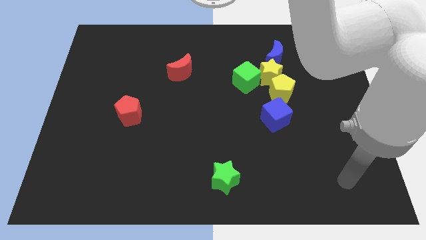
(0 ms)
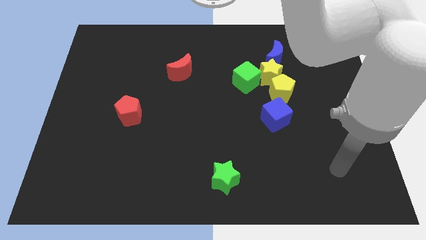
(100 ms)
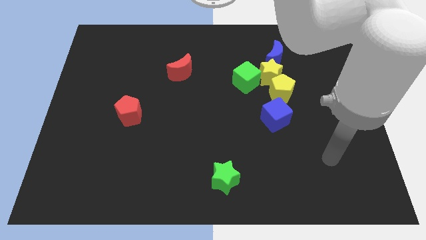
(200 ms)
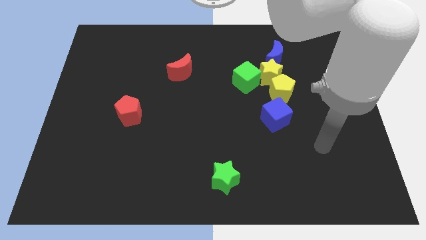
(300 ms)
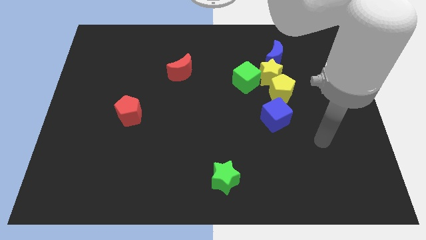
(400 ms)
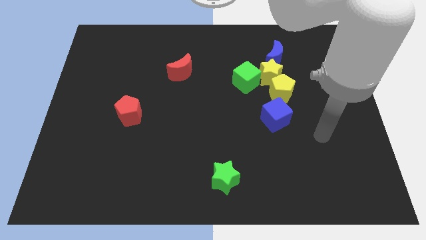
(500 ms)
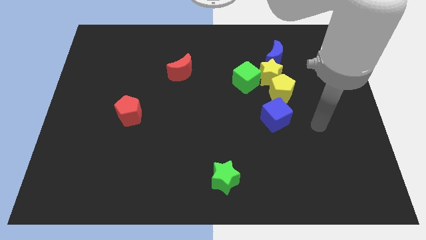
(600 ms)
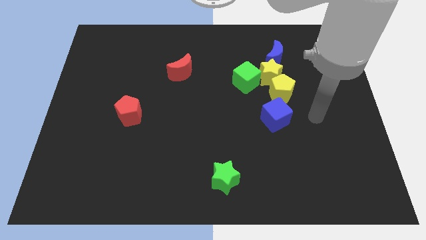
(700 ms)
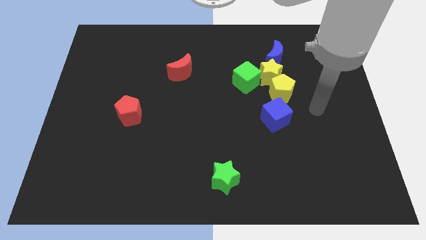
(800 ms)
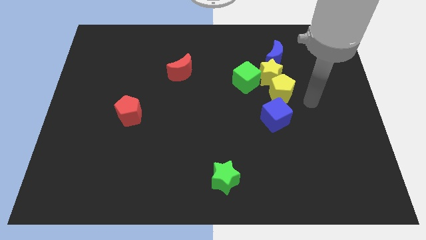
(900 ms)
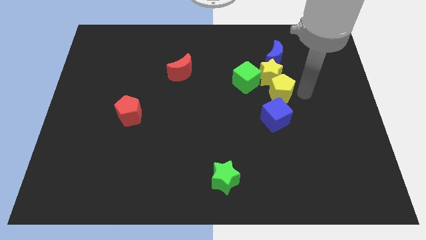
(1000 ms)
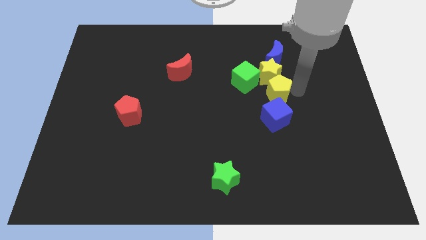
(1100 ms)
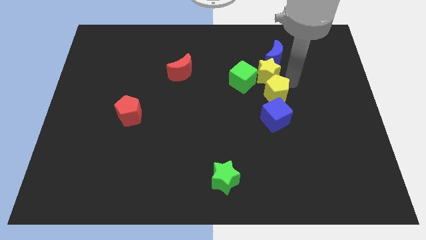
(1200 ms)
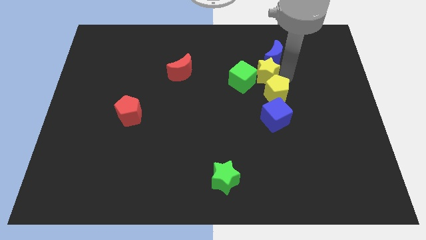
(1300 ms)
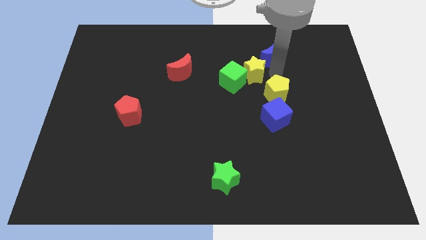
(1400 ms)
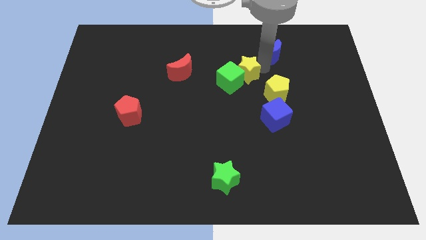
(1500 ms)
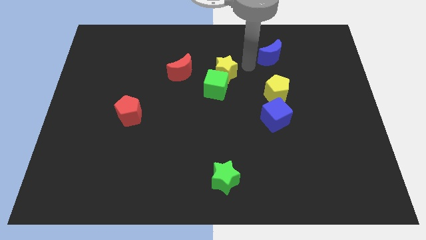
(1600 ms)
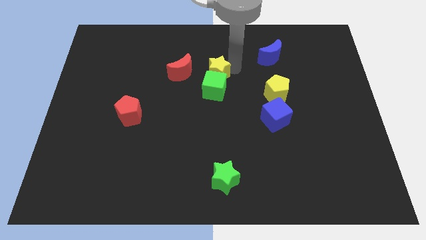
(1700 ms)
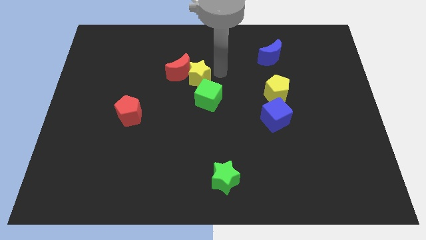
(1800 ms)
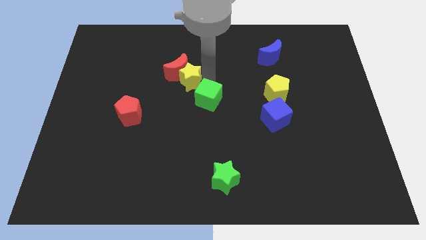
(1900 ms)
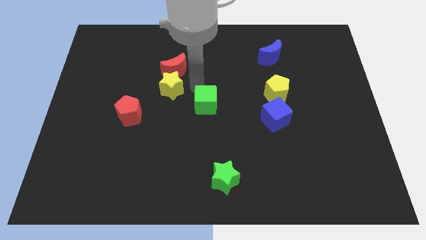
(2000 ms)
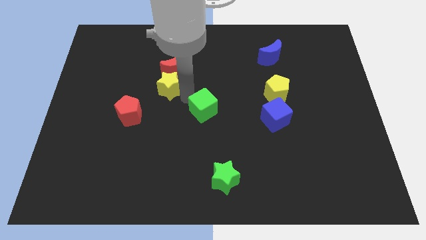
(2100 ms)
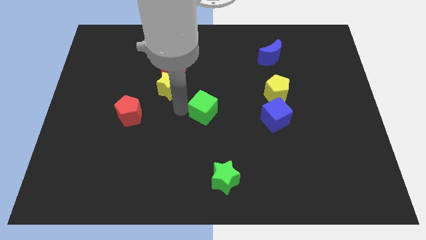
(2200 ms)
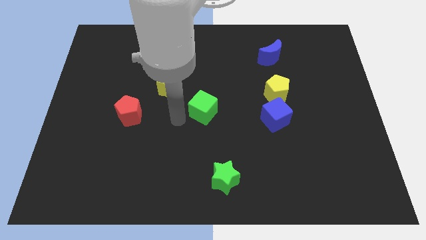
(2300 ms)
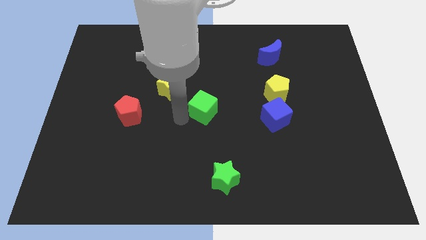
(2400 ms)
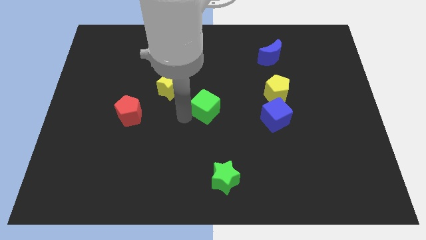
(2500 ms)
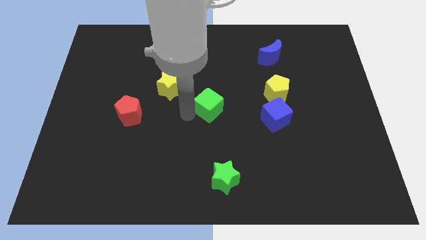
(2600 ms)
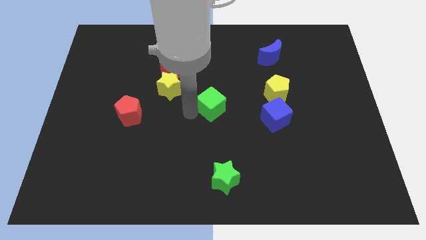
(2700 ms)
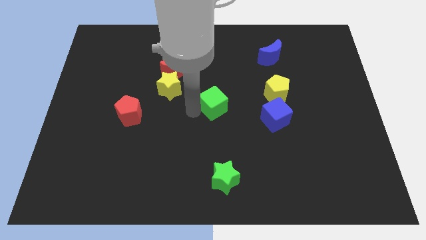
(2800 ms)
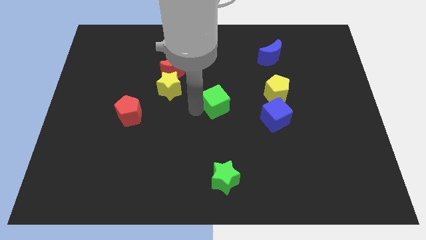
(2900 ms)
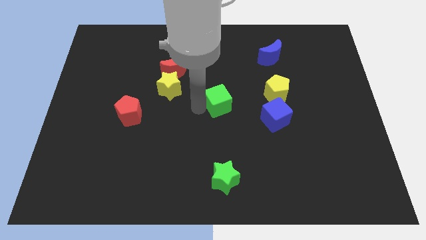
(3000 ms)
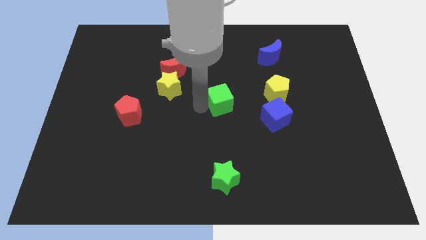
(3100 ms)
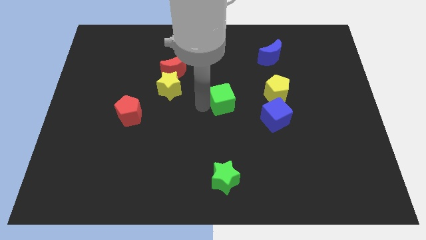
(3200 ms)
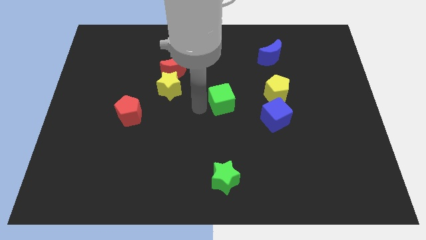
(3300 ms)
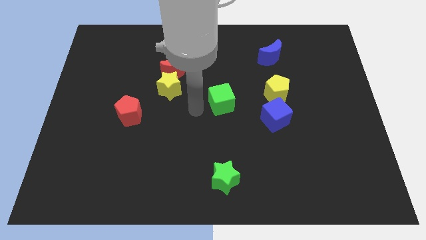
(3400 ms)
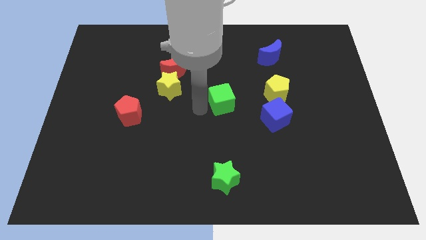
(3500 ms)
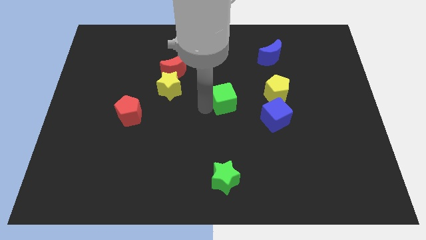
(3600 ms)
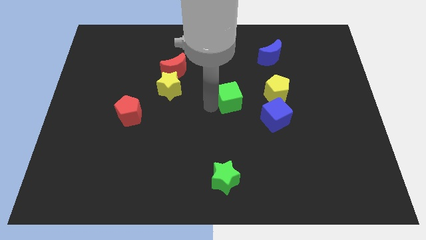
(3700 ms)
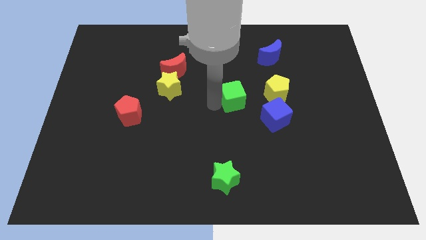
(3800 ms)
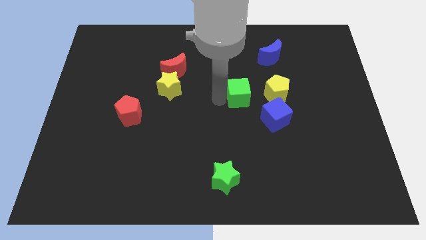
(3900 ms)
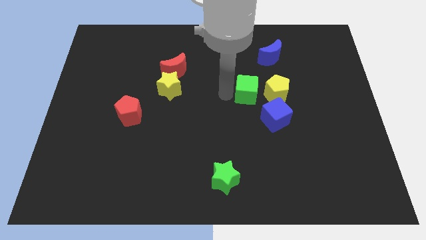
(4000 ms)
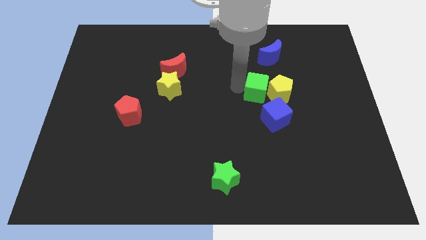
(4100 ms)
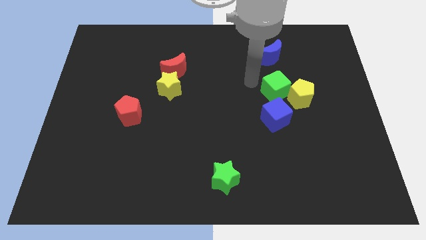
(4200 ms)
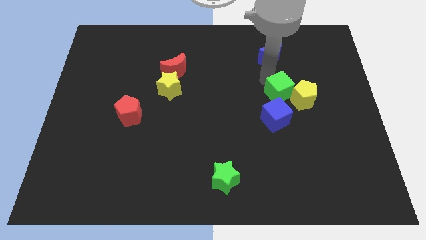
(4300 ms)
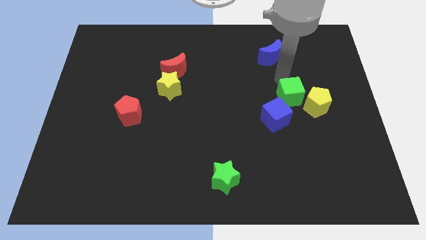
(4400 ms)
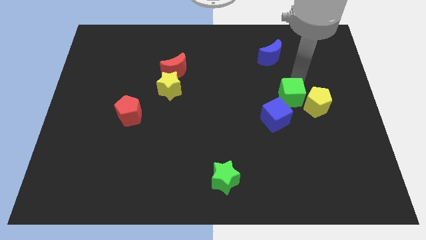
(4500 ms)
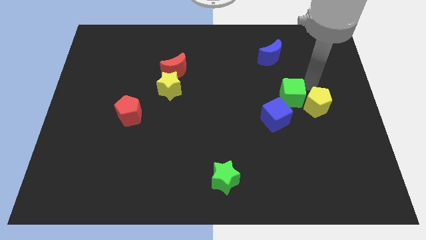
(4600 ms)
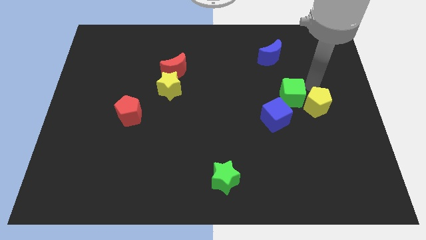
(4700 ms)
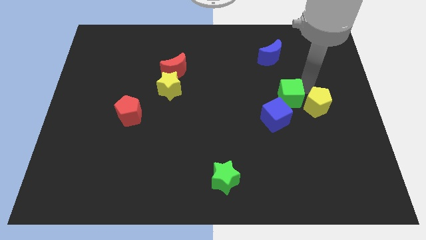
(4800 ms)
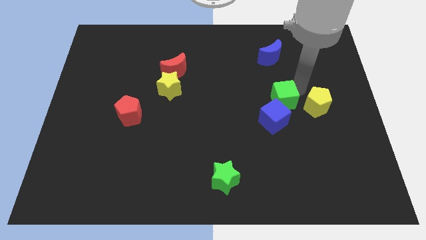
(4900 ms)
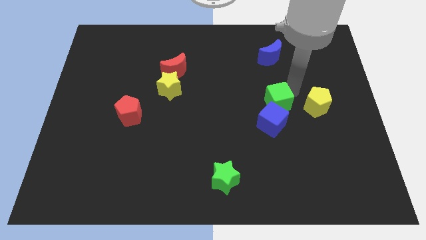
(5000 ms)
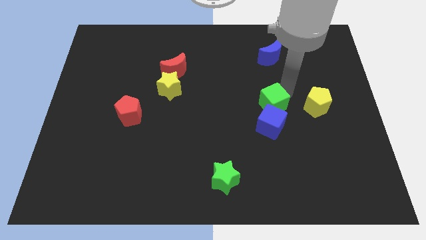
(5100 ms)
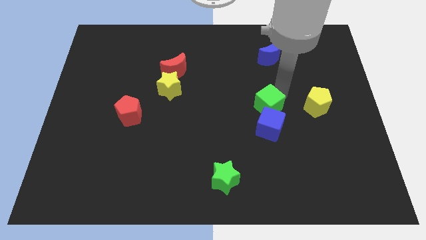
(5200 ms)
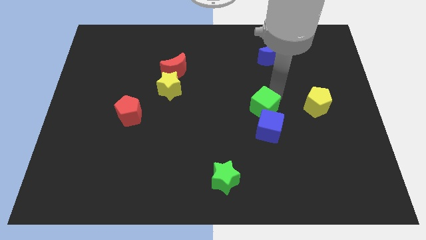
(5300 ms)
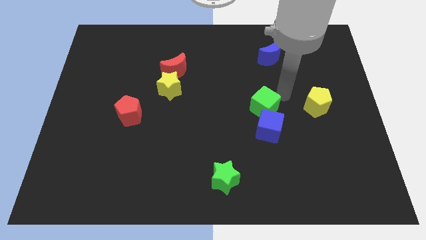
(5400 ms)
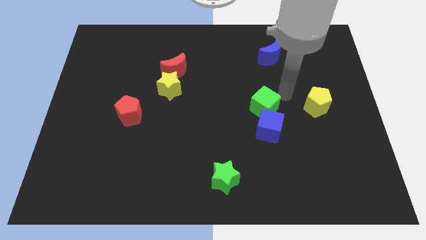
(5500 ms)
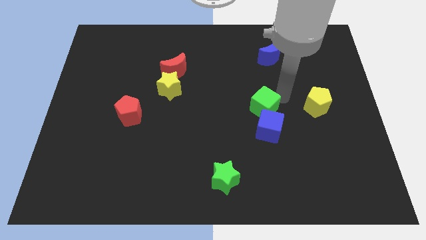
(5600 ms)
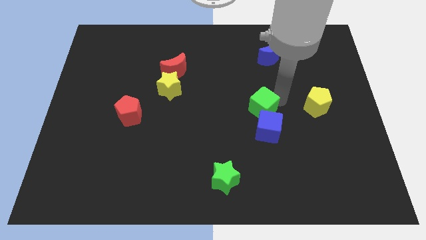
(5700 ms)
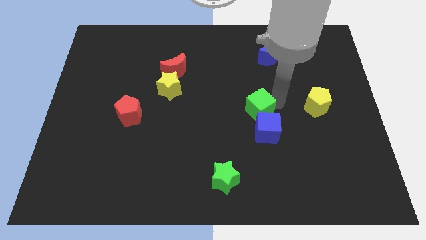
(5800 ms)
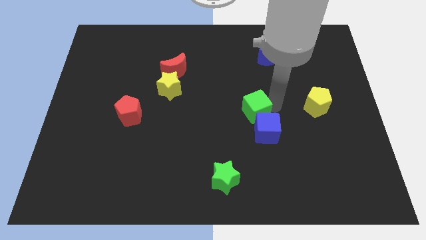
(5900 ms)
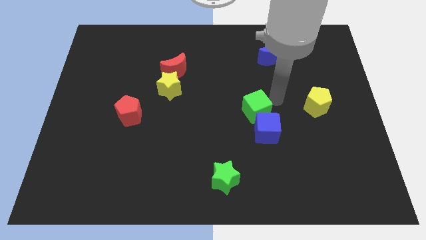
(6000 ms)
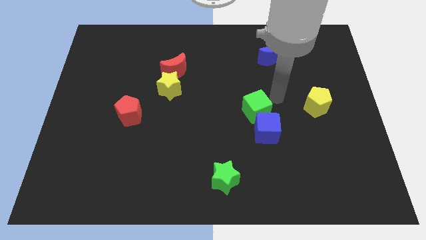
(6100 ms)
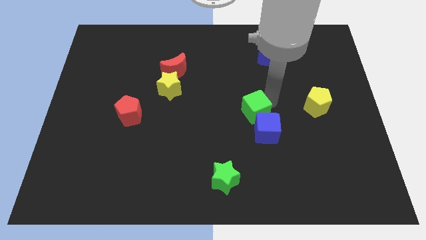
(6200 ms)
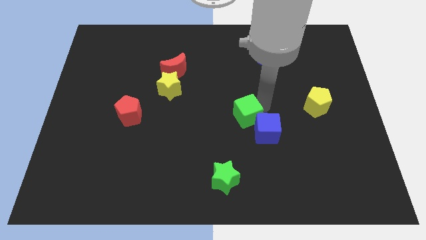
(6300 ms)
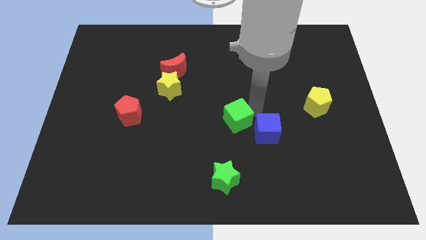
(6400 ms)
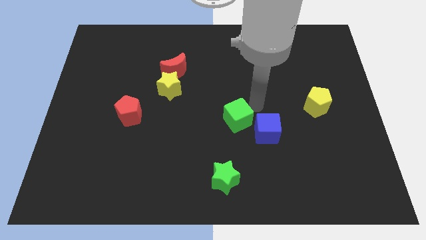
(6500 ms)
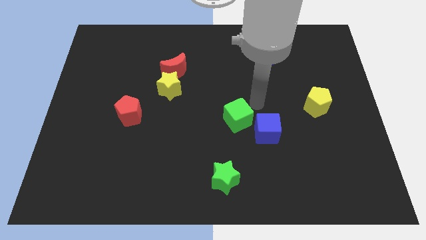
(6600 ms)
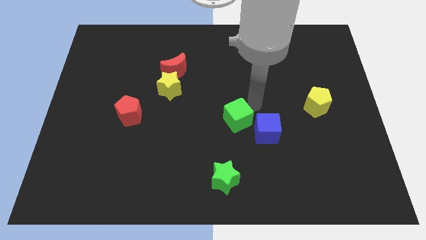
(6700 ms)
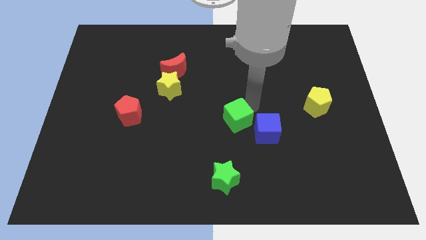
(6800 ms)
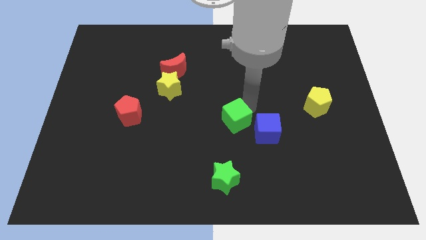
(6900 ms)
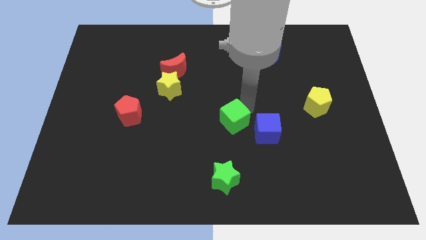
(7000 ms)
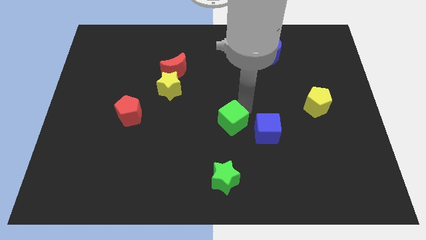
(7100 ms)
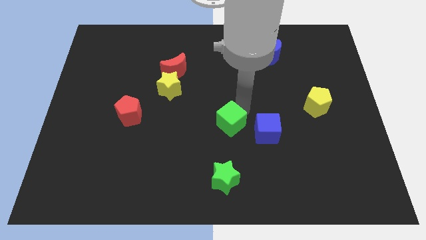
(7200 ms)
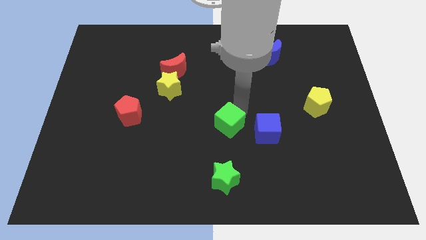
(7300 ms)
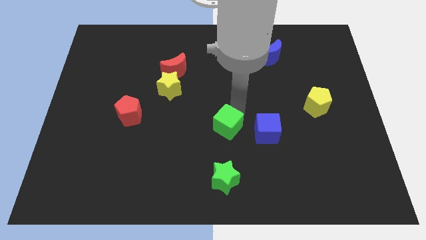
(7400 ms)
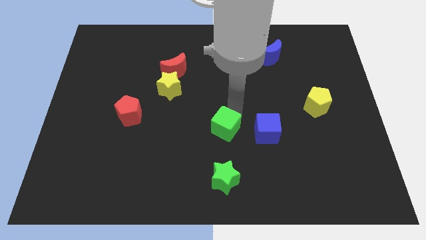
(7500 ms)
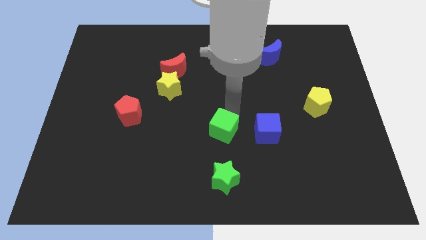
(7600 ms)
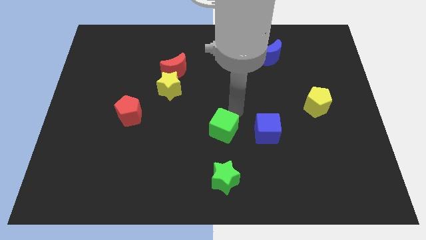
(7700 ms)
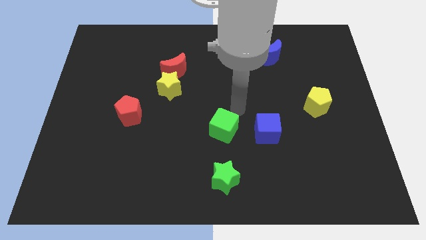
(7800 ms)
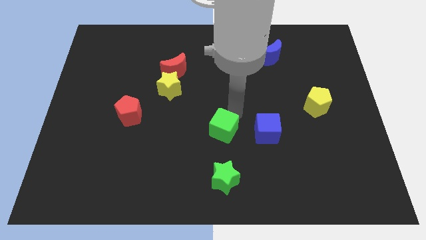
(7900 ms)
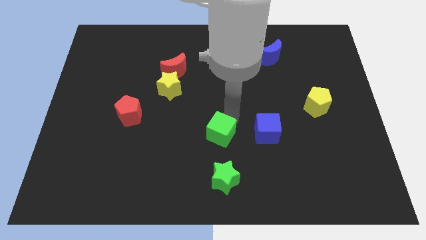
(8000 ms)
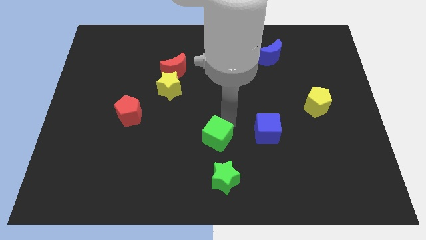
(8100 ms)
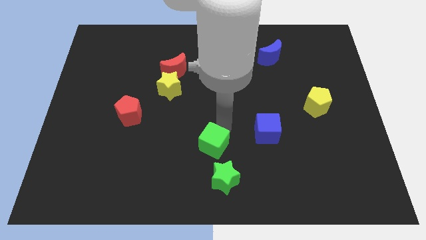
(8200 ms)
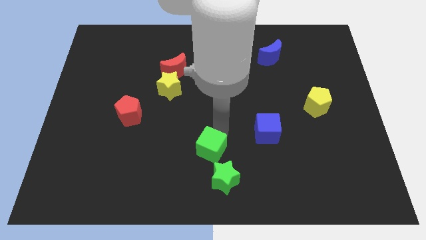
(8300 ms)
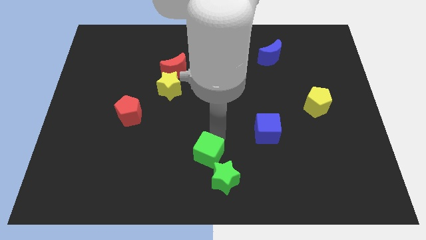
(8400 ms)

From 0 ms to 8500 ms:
slide the green cube to the bottom
